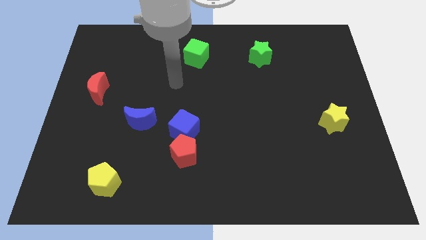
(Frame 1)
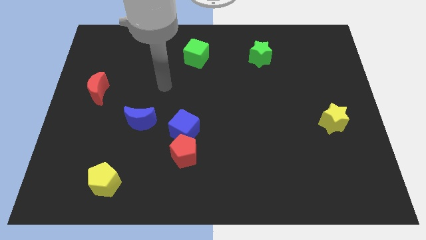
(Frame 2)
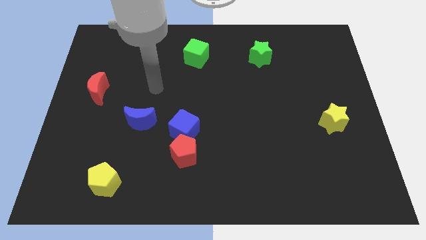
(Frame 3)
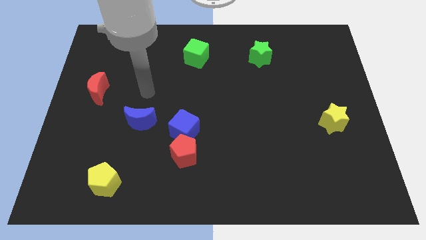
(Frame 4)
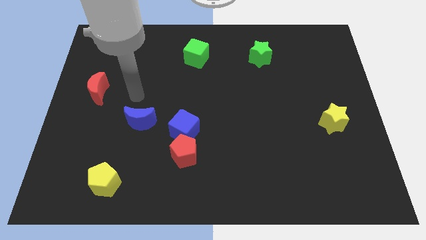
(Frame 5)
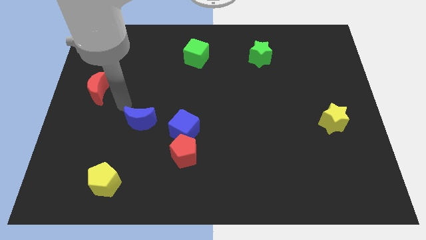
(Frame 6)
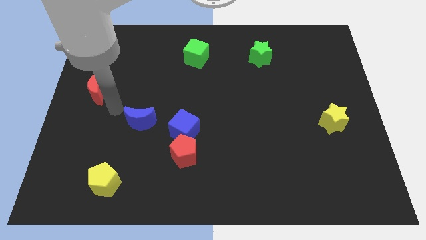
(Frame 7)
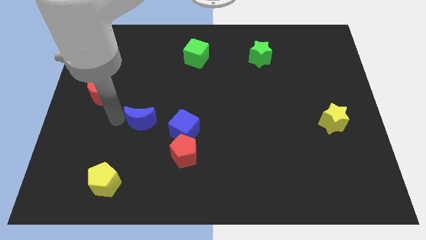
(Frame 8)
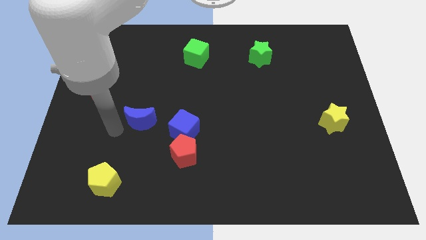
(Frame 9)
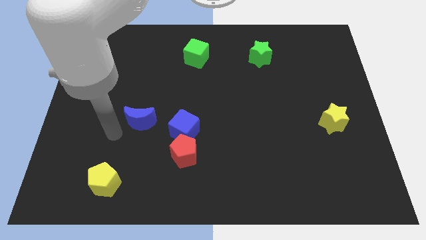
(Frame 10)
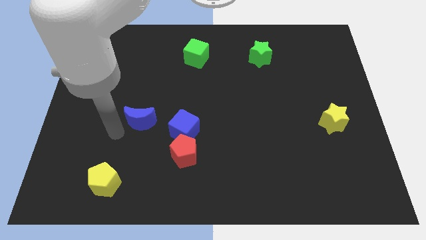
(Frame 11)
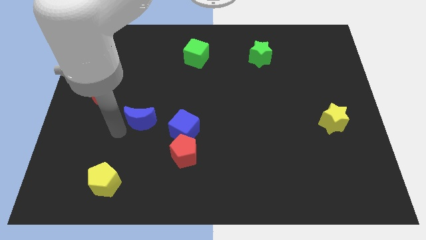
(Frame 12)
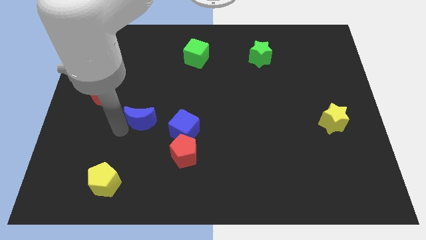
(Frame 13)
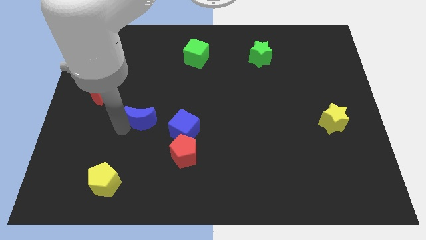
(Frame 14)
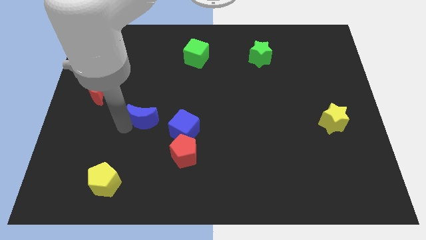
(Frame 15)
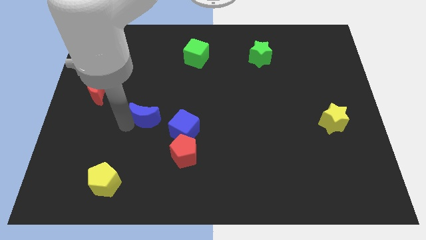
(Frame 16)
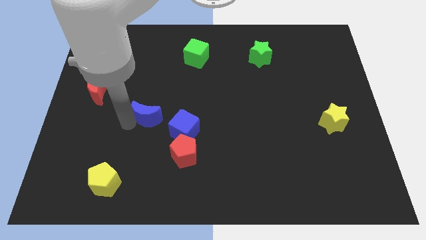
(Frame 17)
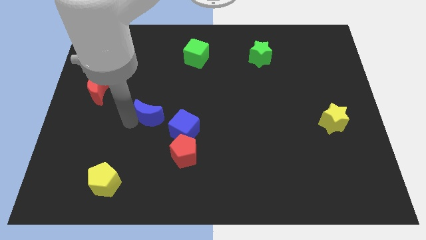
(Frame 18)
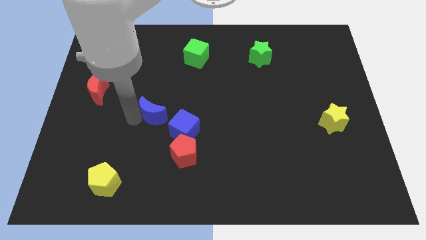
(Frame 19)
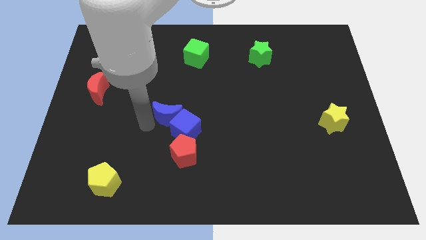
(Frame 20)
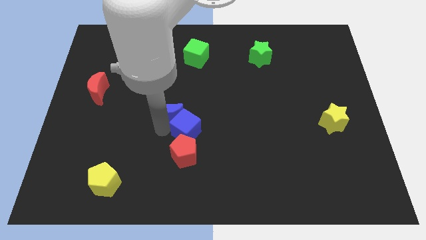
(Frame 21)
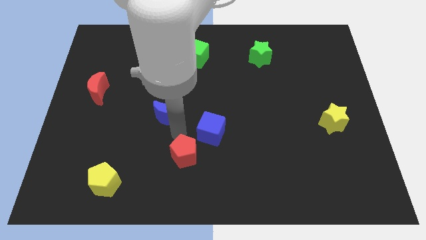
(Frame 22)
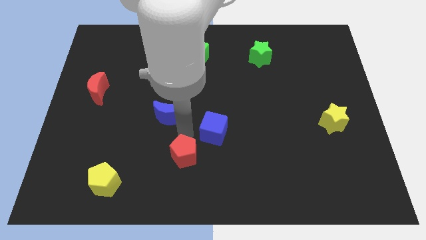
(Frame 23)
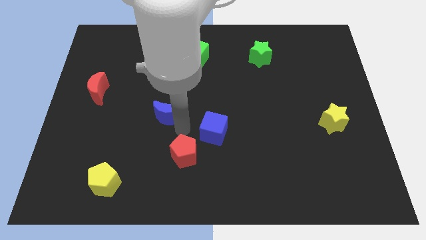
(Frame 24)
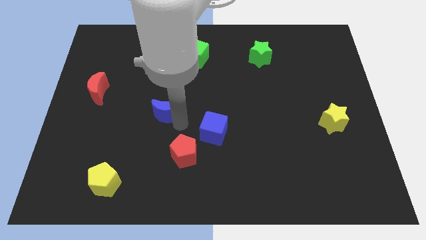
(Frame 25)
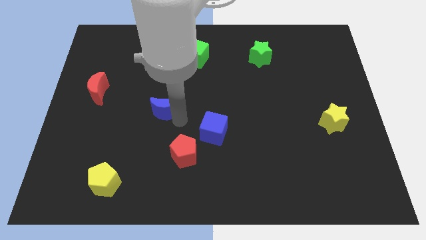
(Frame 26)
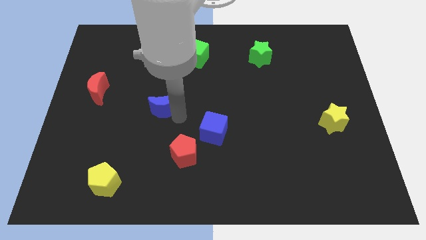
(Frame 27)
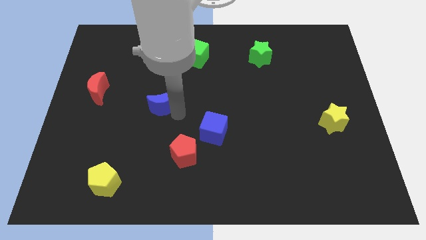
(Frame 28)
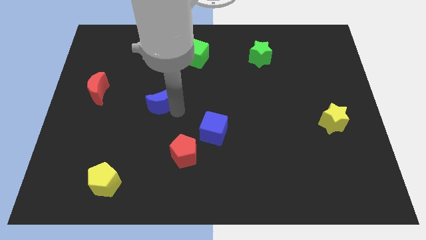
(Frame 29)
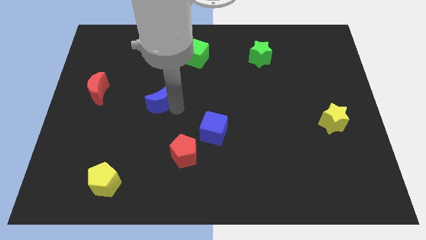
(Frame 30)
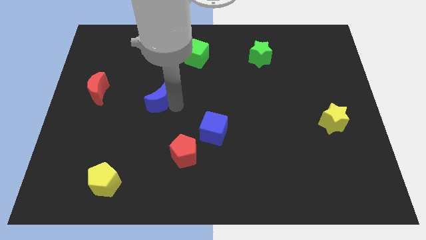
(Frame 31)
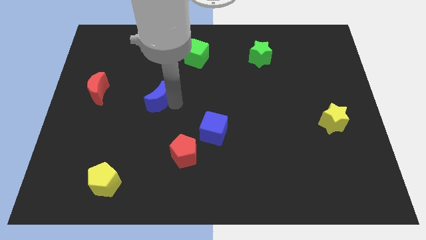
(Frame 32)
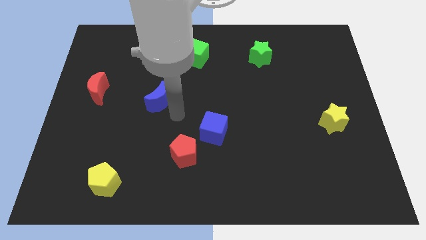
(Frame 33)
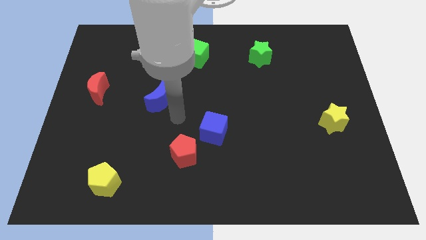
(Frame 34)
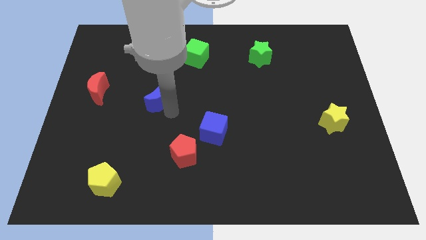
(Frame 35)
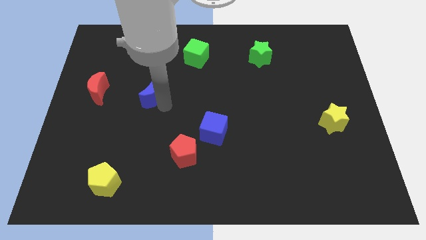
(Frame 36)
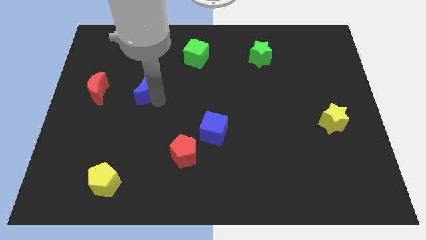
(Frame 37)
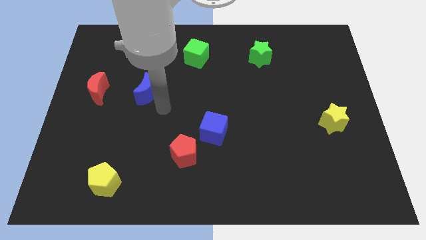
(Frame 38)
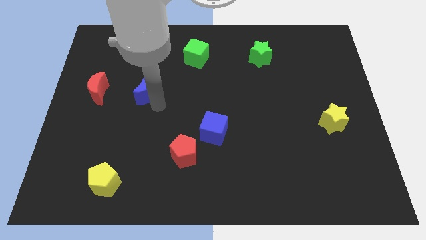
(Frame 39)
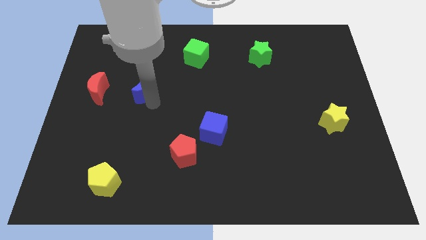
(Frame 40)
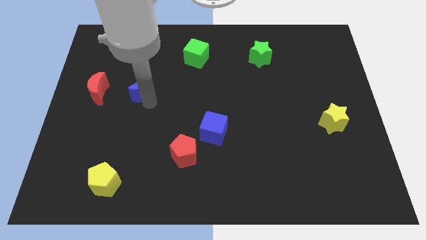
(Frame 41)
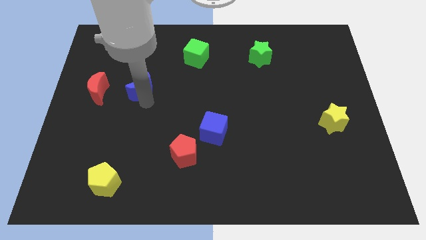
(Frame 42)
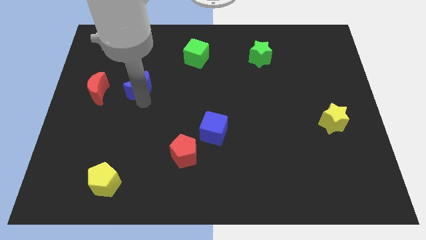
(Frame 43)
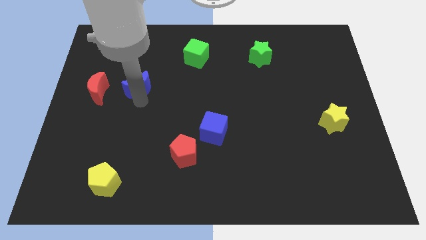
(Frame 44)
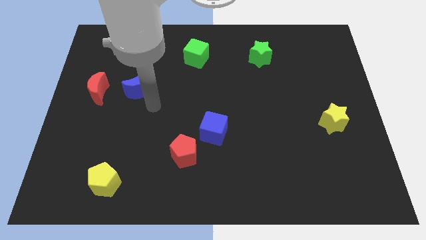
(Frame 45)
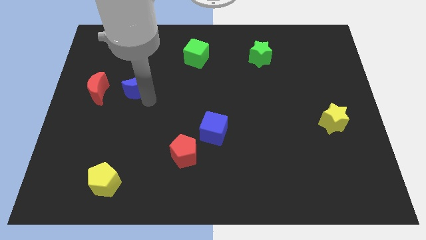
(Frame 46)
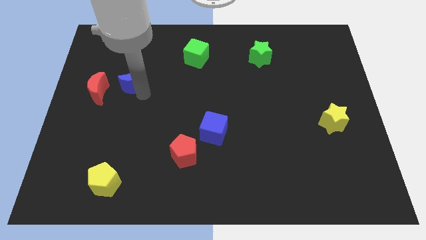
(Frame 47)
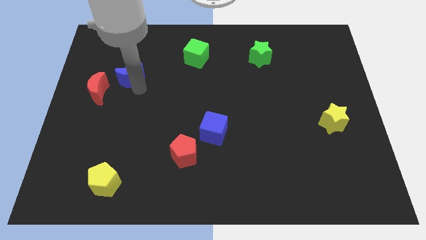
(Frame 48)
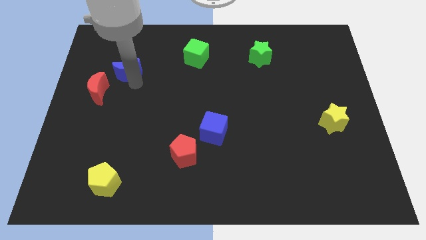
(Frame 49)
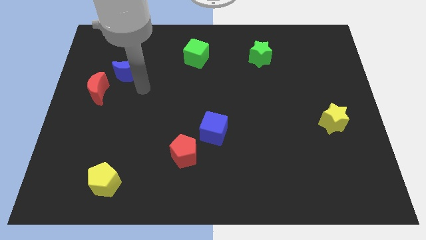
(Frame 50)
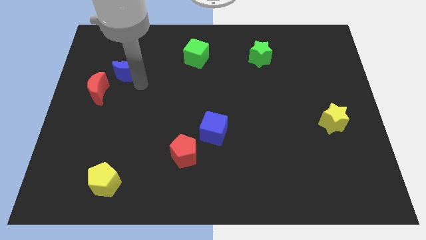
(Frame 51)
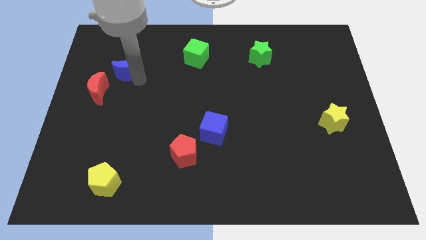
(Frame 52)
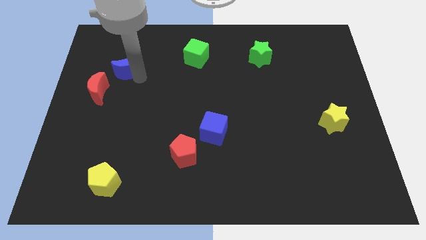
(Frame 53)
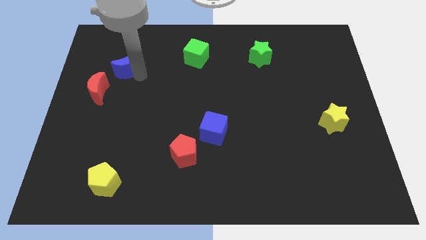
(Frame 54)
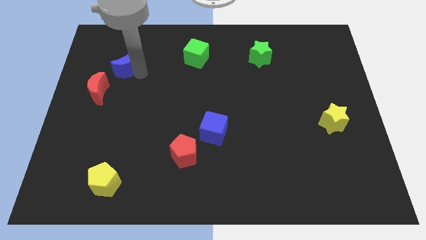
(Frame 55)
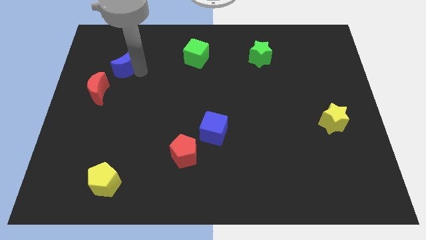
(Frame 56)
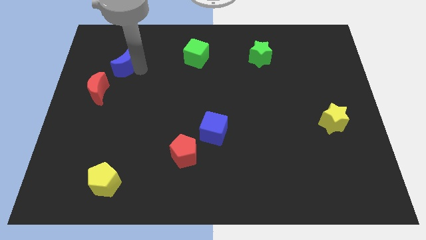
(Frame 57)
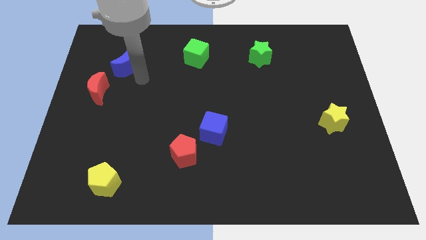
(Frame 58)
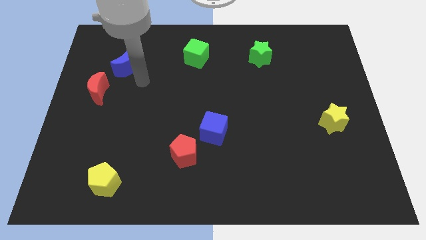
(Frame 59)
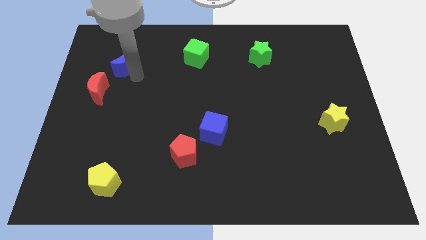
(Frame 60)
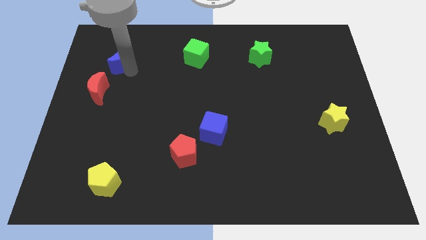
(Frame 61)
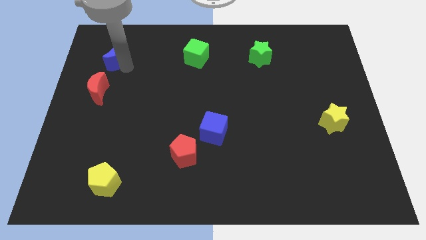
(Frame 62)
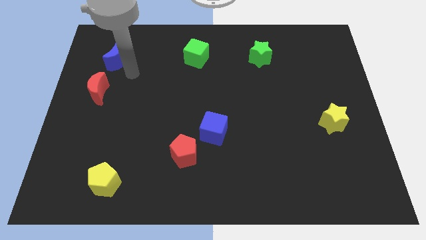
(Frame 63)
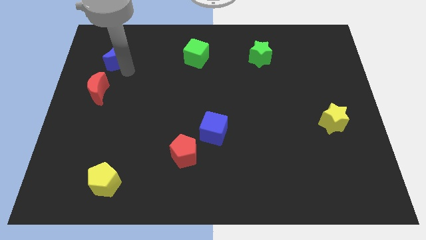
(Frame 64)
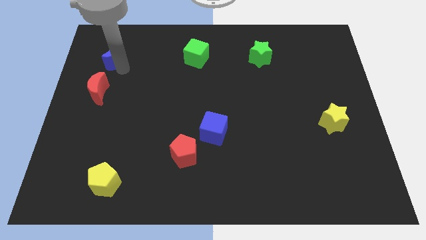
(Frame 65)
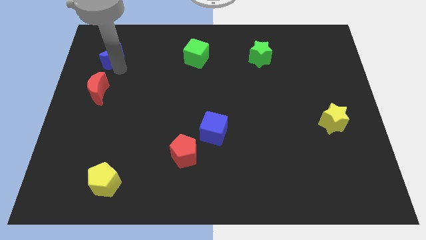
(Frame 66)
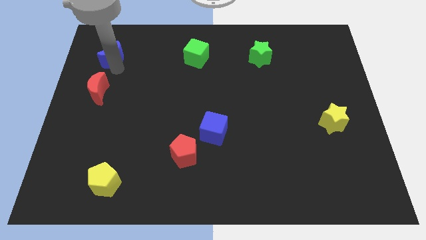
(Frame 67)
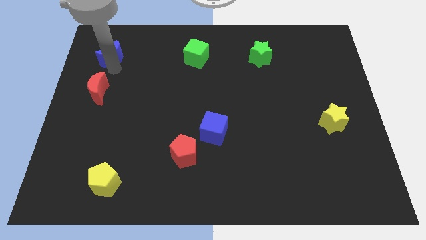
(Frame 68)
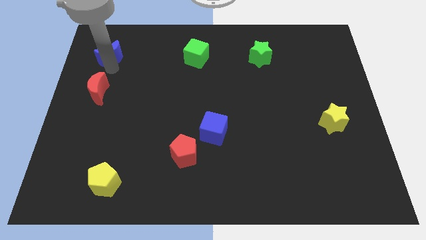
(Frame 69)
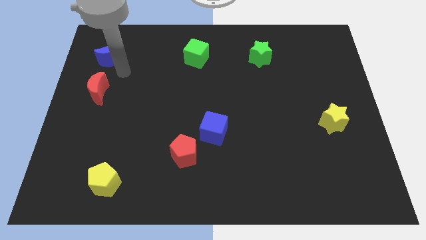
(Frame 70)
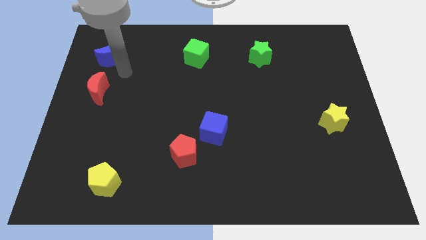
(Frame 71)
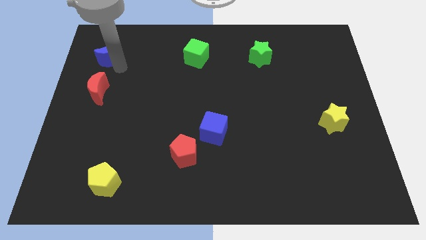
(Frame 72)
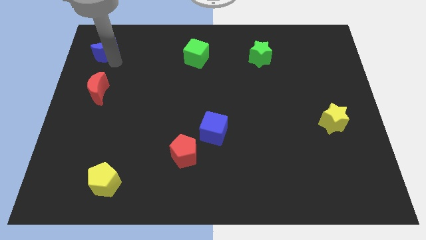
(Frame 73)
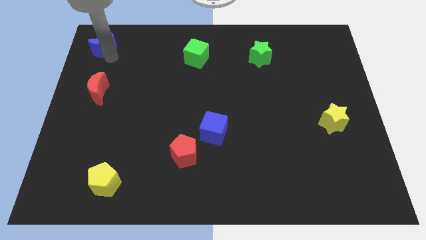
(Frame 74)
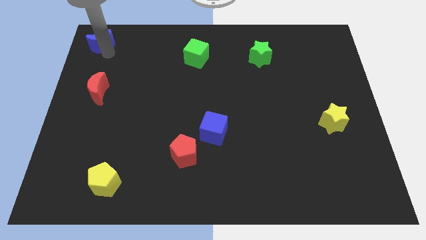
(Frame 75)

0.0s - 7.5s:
push the blue moon to the upper left corner
